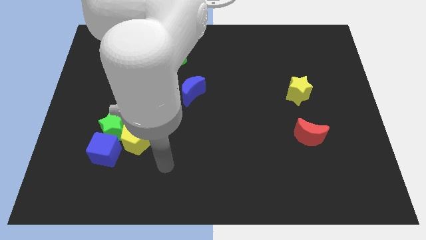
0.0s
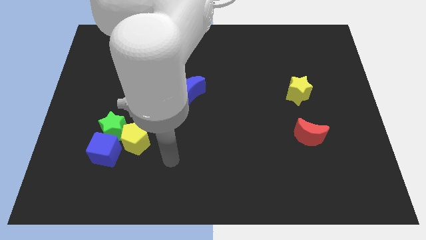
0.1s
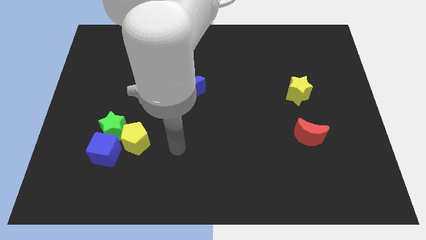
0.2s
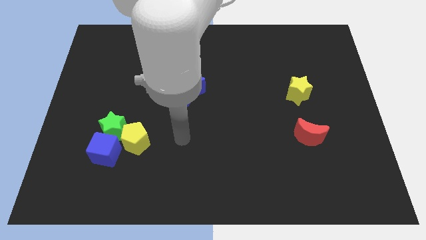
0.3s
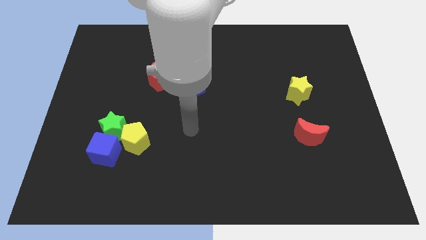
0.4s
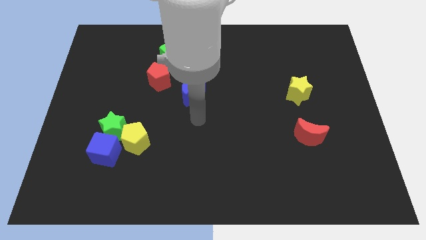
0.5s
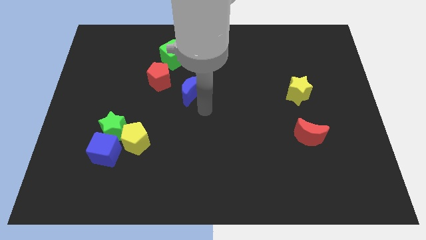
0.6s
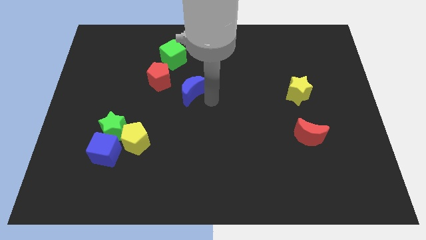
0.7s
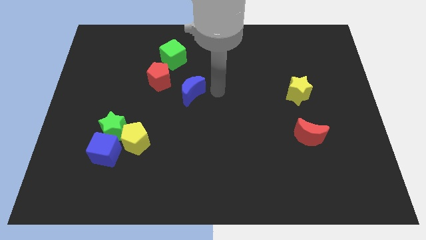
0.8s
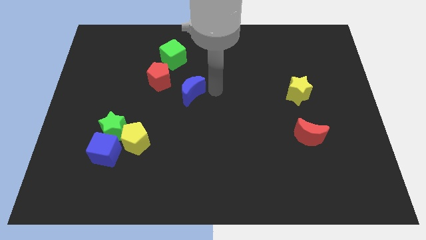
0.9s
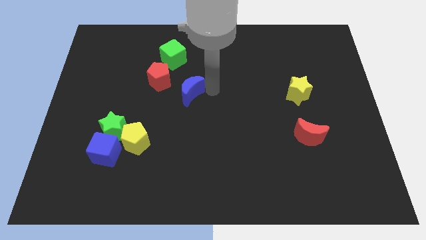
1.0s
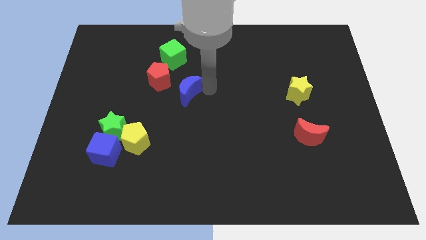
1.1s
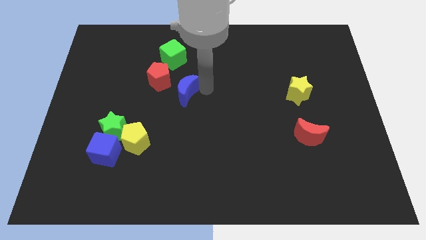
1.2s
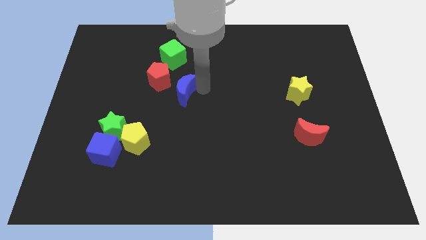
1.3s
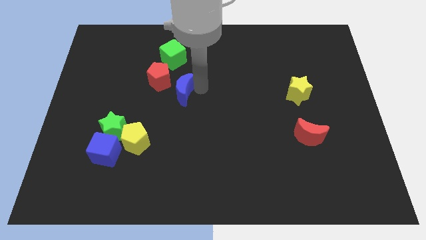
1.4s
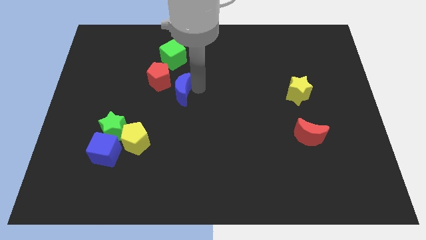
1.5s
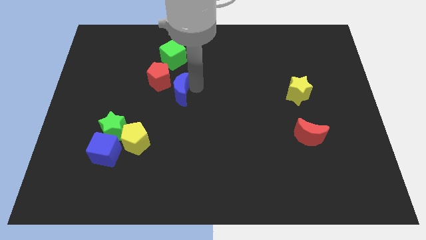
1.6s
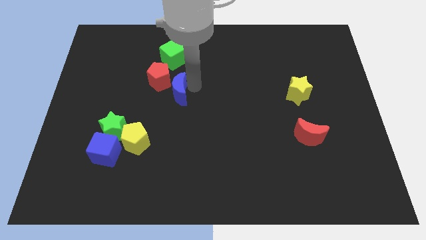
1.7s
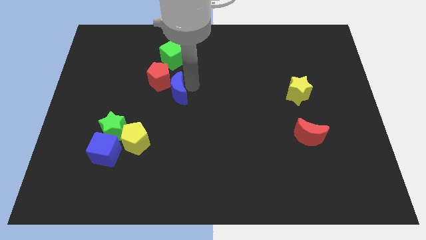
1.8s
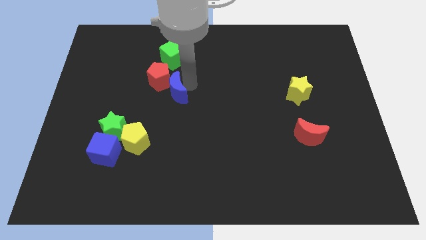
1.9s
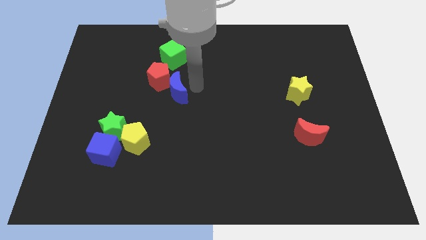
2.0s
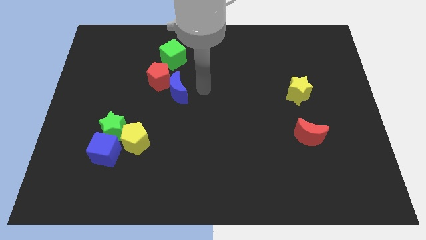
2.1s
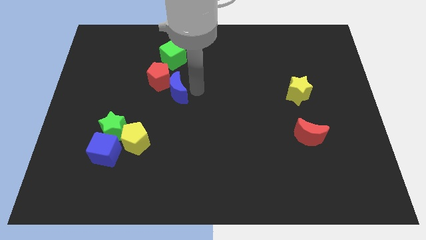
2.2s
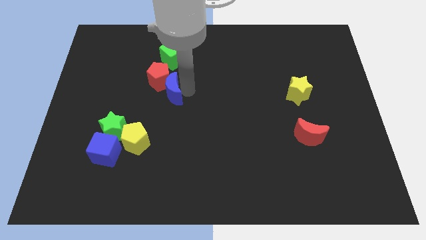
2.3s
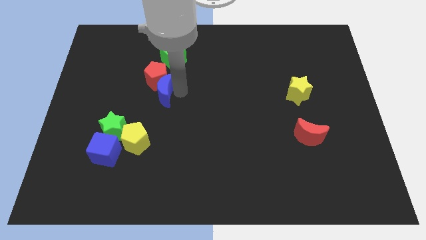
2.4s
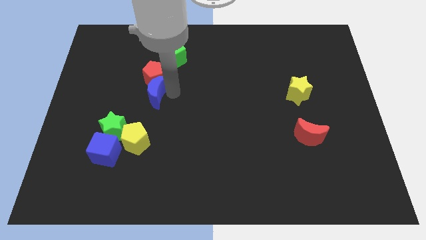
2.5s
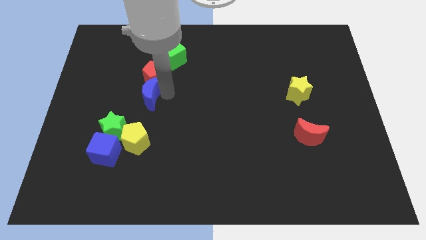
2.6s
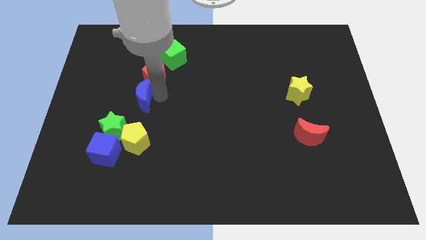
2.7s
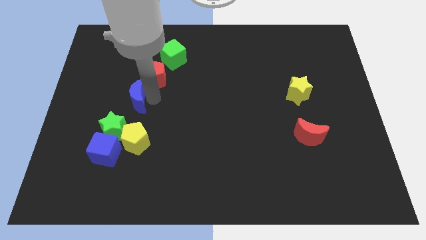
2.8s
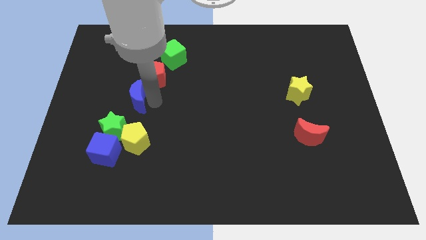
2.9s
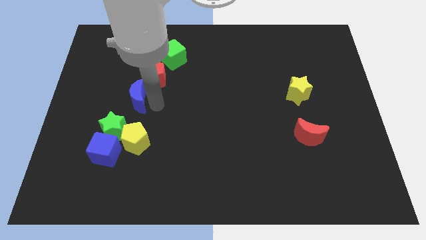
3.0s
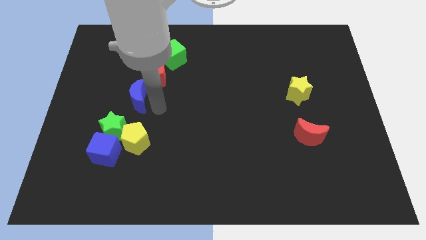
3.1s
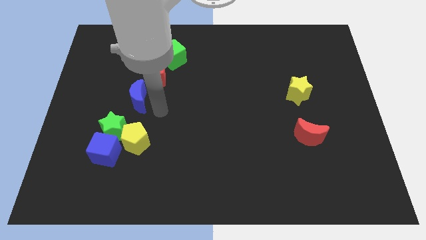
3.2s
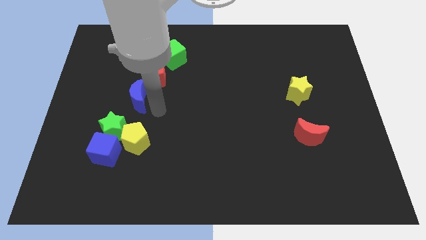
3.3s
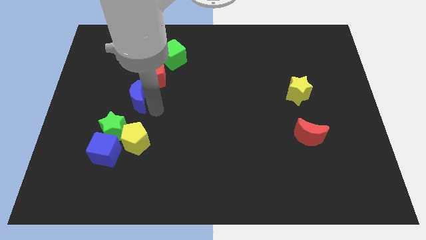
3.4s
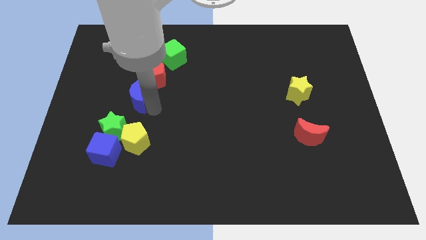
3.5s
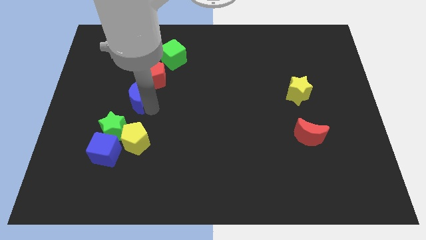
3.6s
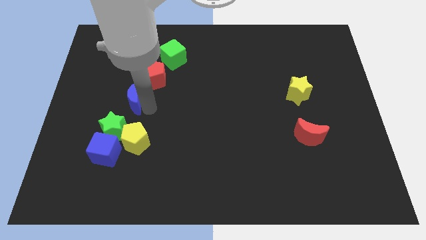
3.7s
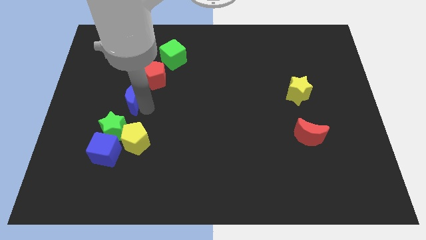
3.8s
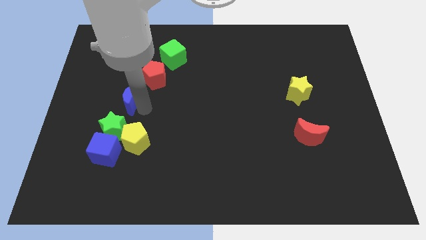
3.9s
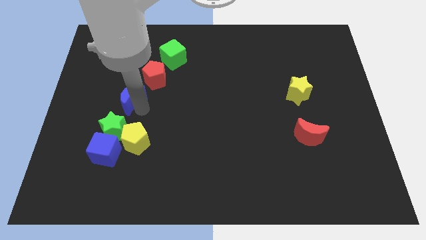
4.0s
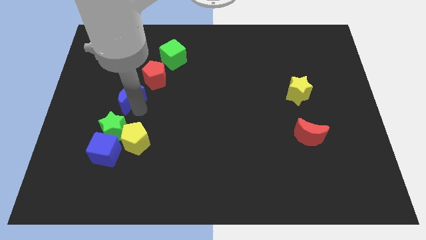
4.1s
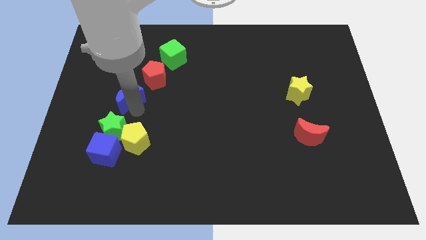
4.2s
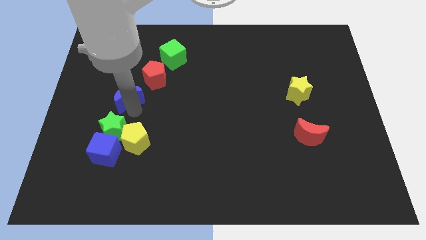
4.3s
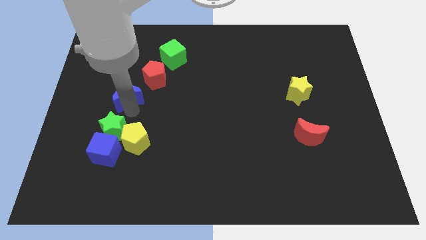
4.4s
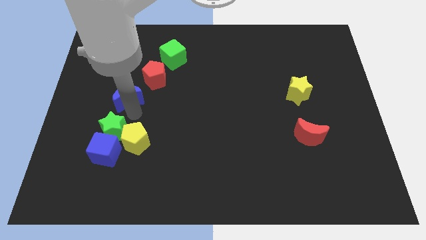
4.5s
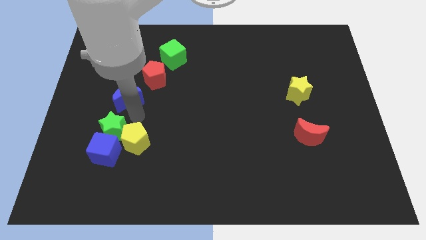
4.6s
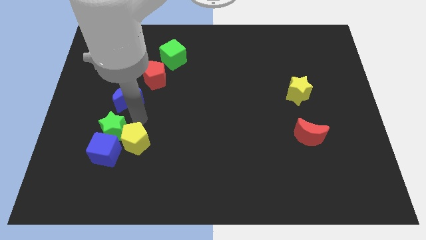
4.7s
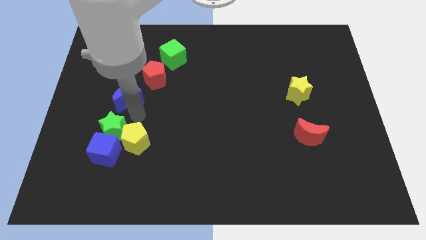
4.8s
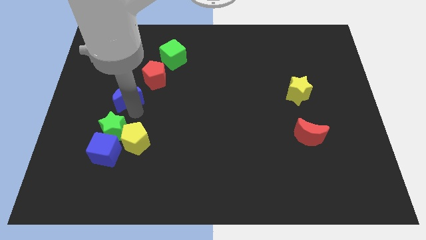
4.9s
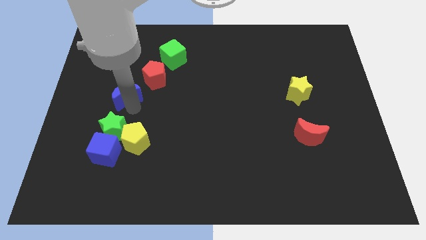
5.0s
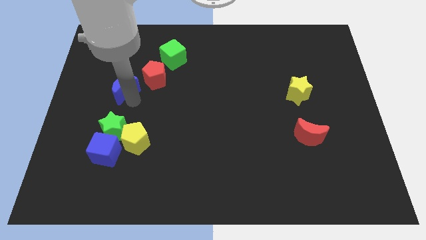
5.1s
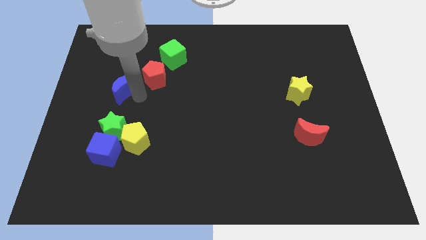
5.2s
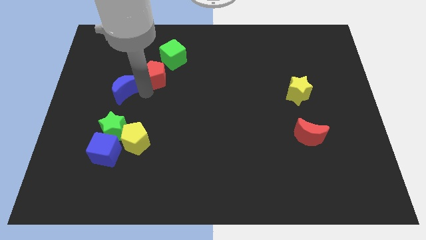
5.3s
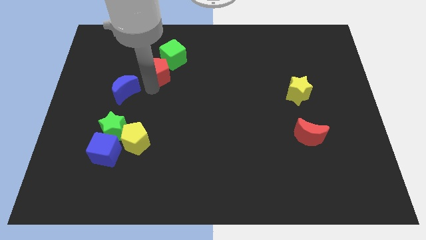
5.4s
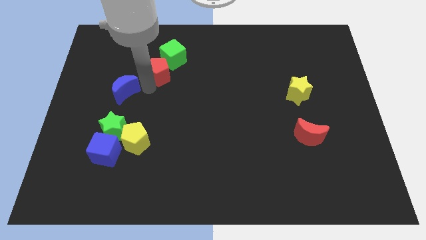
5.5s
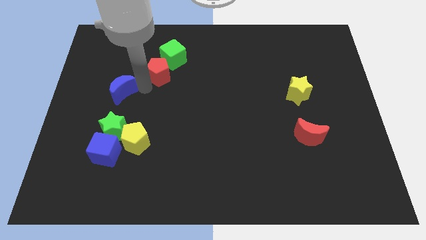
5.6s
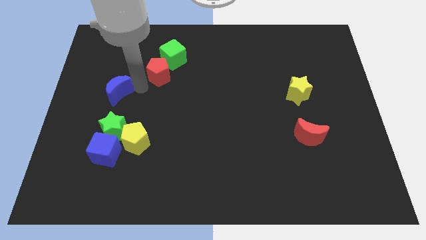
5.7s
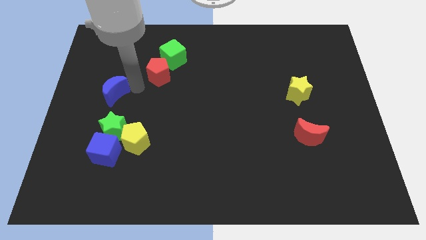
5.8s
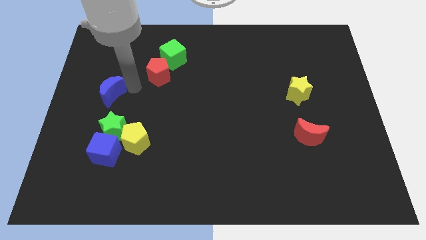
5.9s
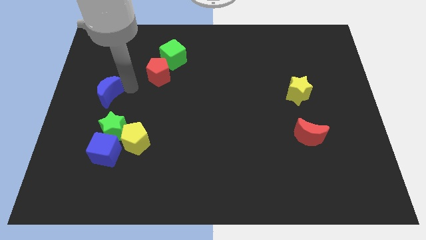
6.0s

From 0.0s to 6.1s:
move the blue moon to the left side

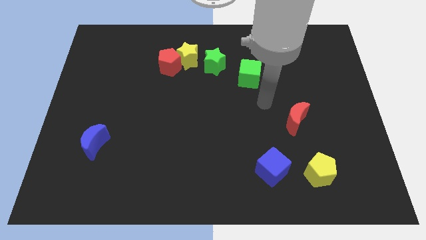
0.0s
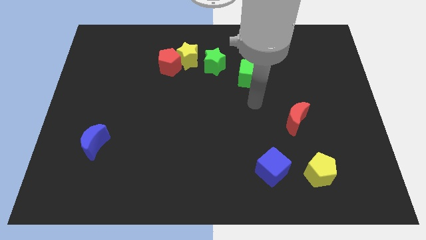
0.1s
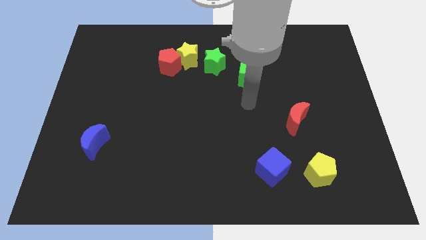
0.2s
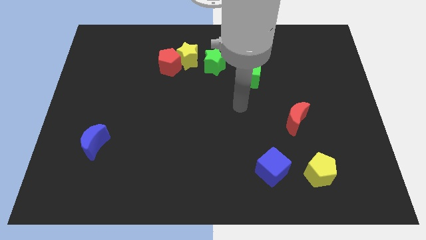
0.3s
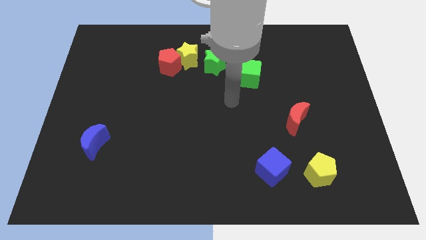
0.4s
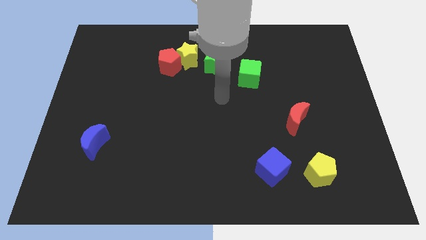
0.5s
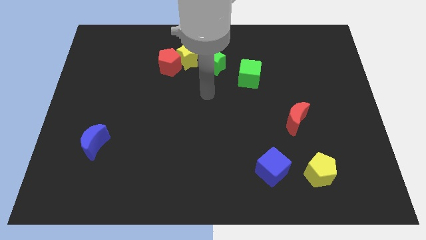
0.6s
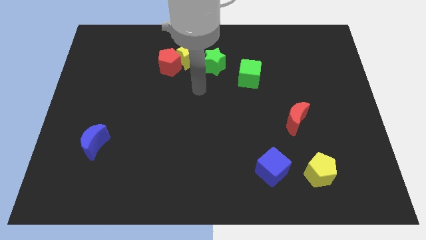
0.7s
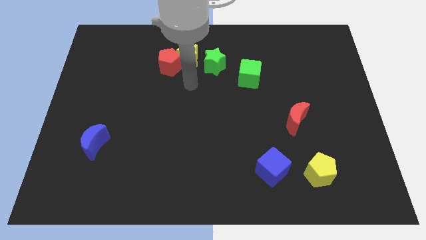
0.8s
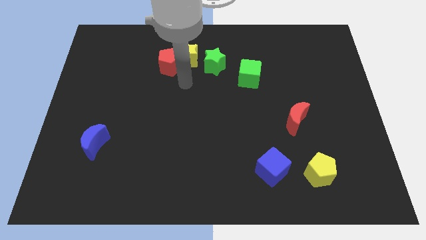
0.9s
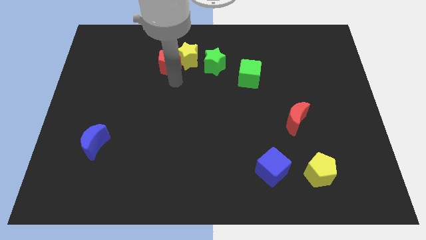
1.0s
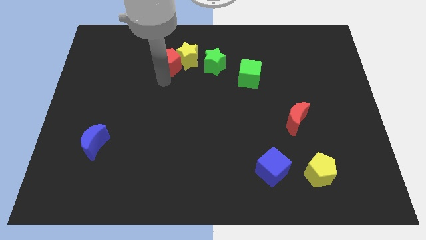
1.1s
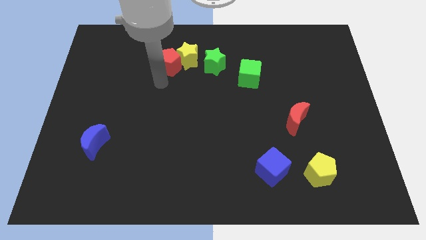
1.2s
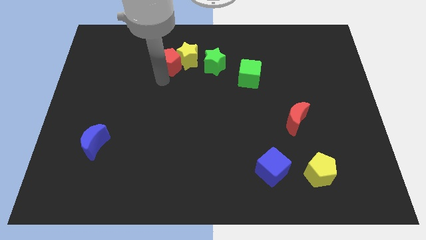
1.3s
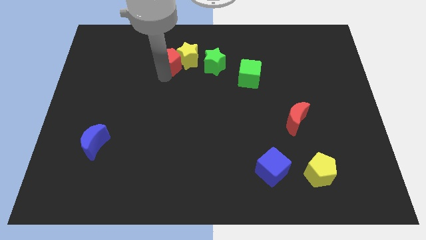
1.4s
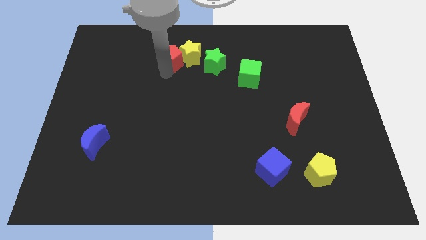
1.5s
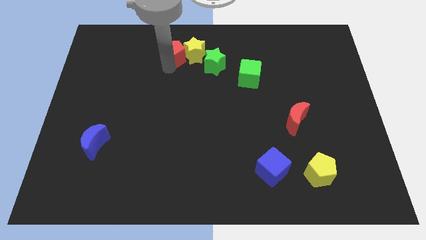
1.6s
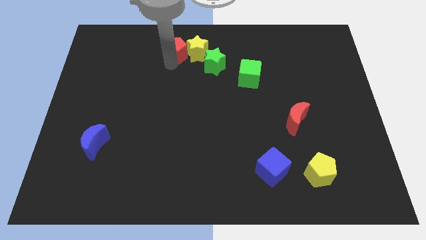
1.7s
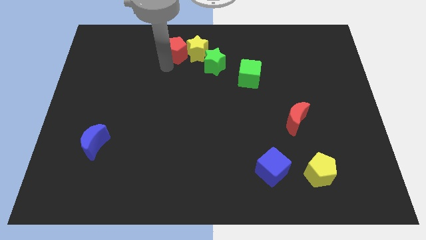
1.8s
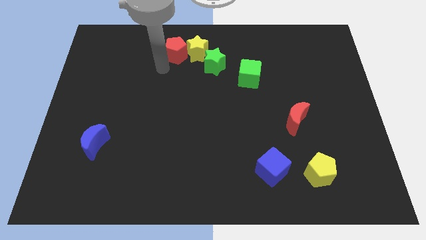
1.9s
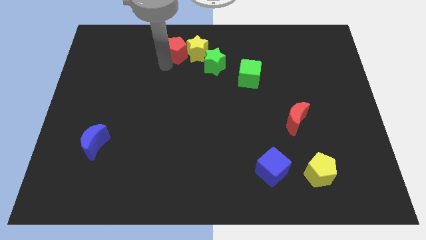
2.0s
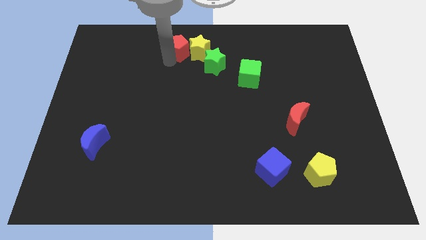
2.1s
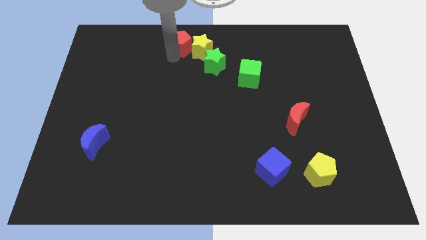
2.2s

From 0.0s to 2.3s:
put the red pentagon to the towards your base
